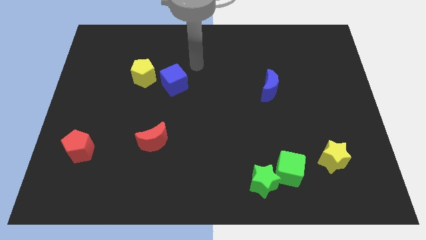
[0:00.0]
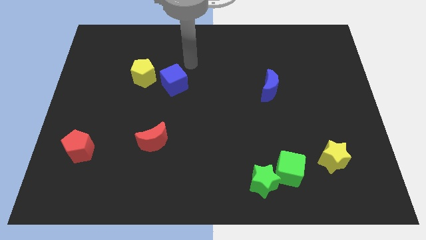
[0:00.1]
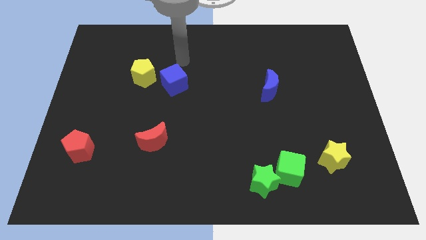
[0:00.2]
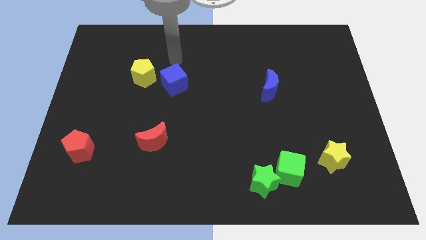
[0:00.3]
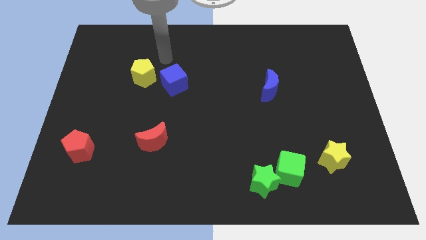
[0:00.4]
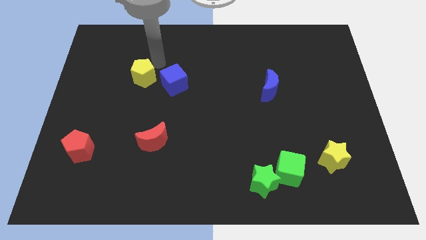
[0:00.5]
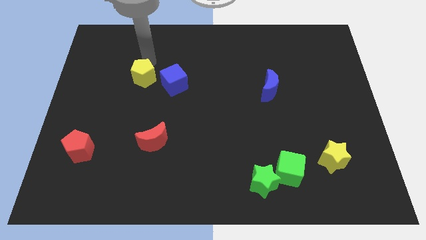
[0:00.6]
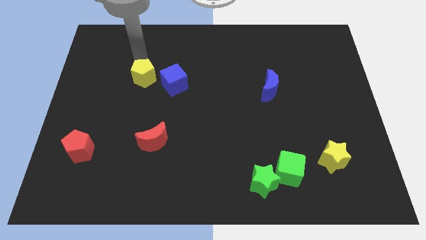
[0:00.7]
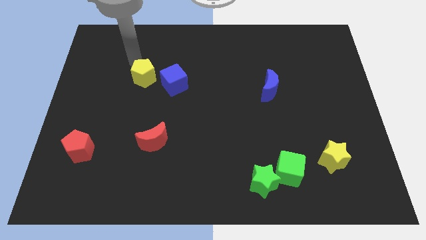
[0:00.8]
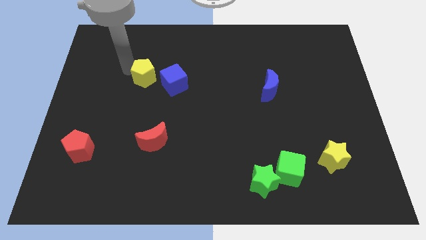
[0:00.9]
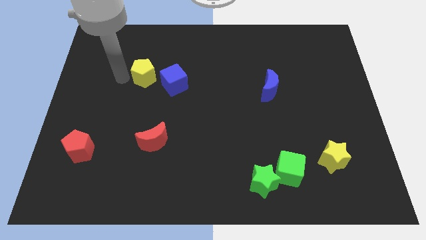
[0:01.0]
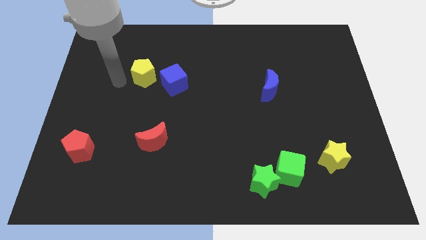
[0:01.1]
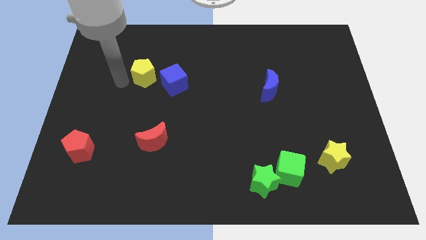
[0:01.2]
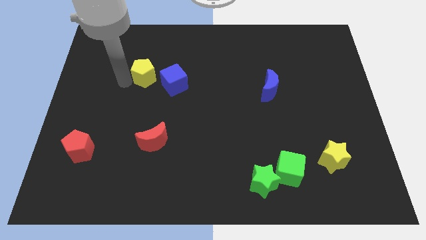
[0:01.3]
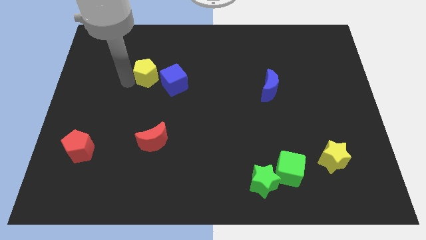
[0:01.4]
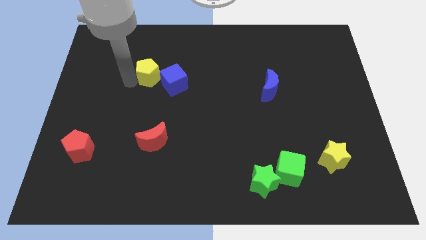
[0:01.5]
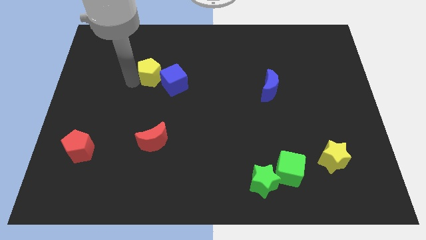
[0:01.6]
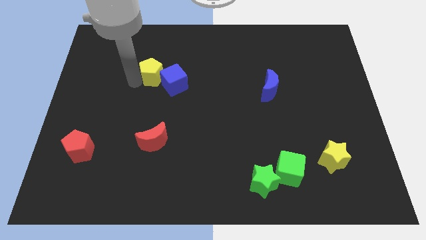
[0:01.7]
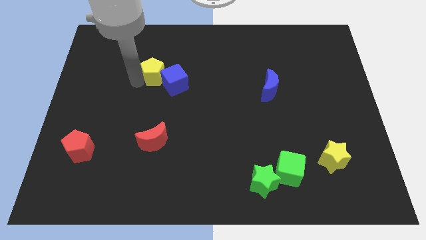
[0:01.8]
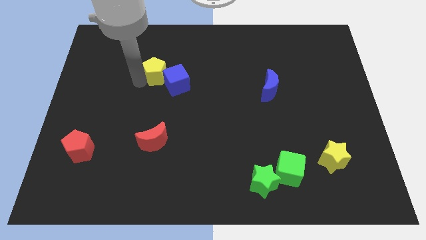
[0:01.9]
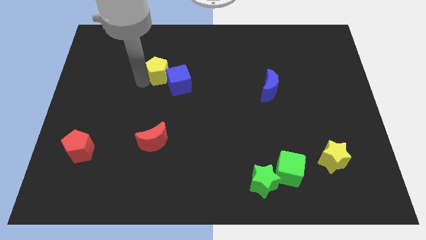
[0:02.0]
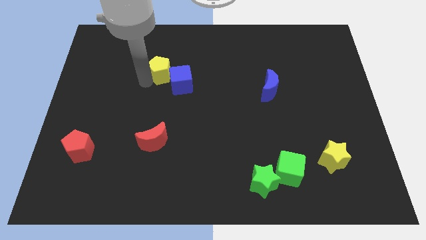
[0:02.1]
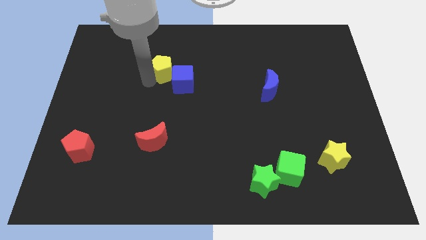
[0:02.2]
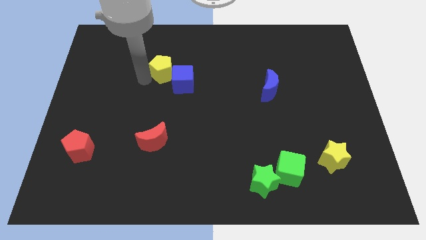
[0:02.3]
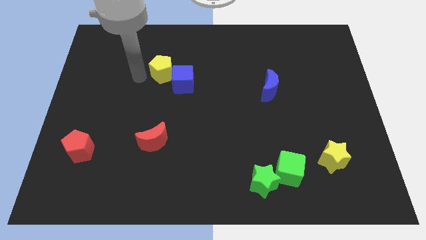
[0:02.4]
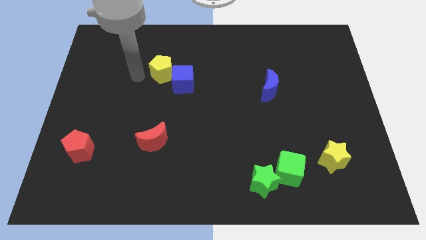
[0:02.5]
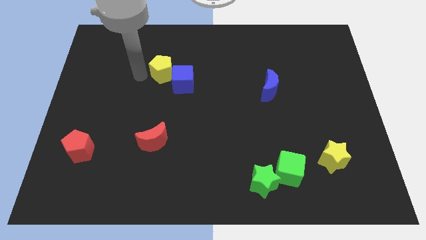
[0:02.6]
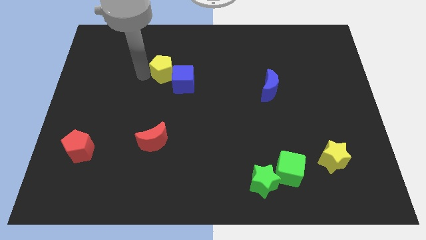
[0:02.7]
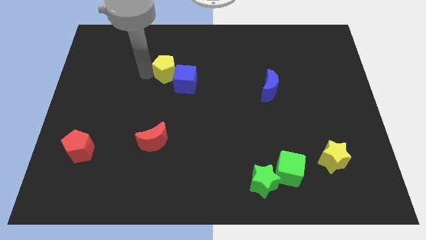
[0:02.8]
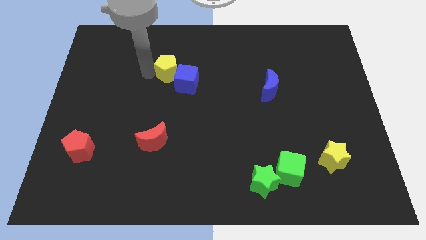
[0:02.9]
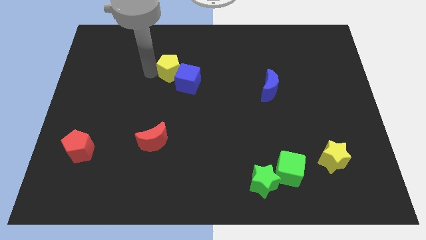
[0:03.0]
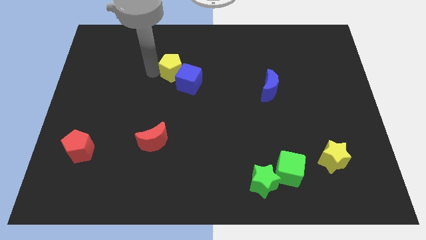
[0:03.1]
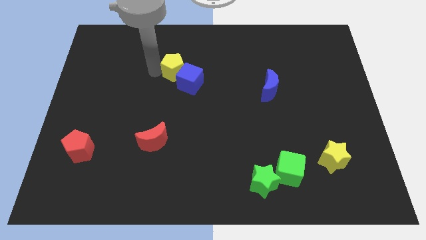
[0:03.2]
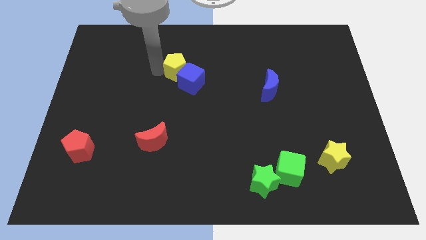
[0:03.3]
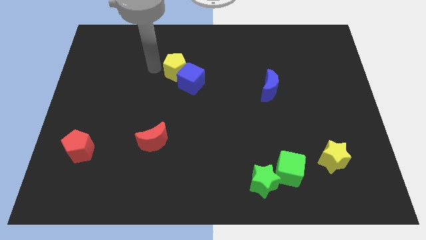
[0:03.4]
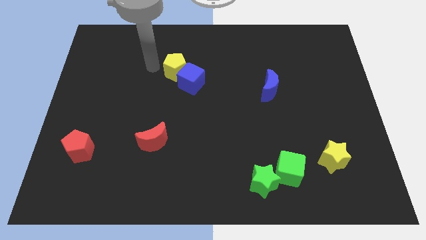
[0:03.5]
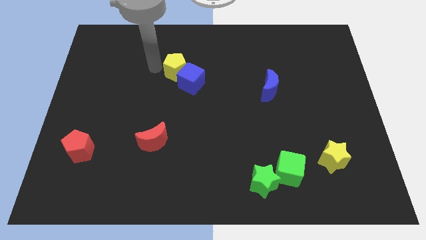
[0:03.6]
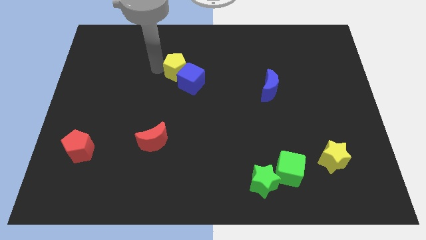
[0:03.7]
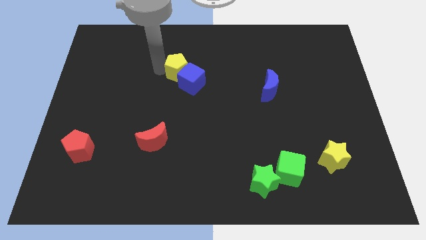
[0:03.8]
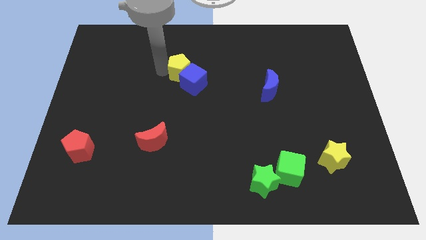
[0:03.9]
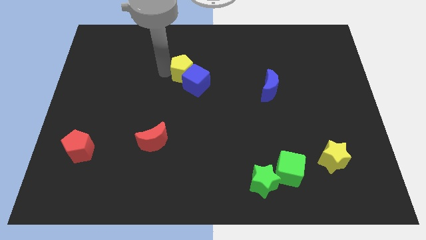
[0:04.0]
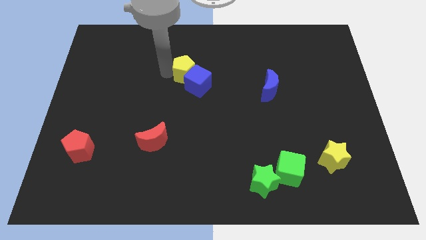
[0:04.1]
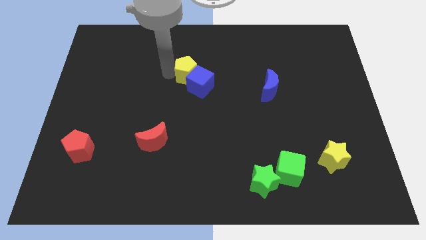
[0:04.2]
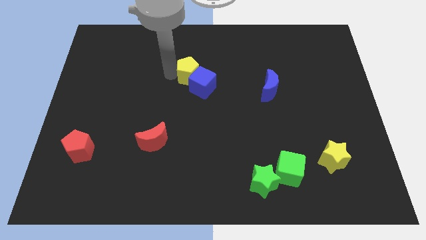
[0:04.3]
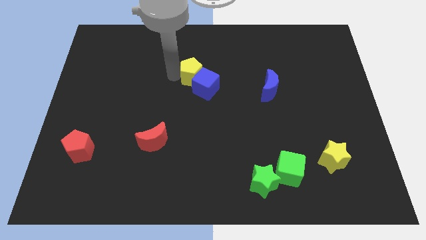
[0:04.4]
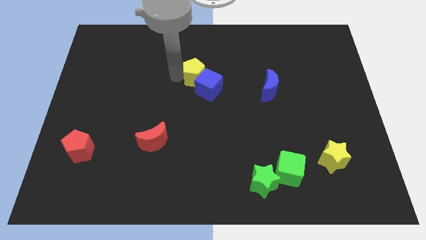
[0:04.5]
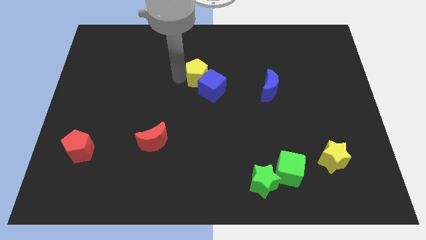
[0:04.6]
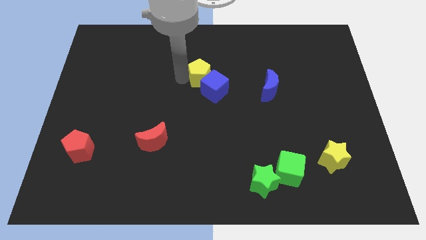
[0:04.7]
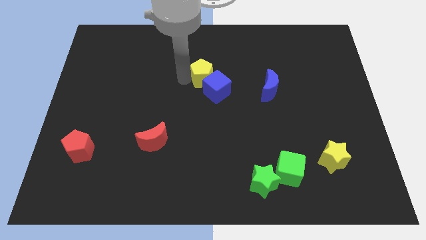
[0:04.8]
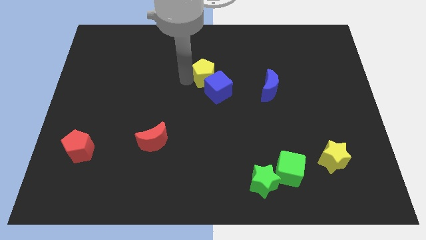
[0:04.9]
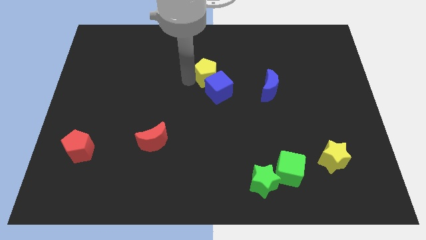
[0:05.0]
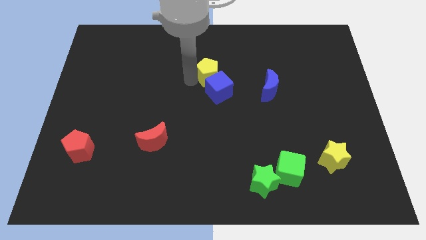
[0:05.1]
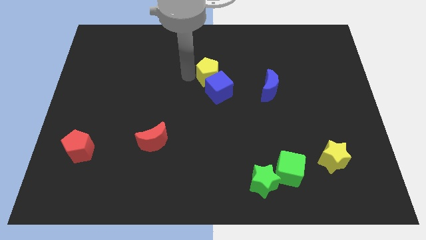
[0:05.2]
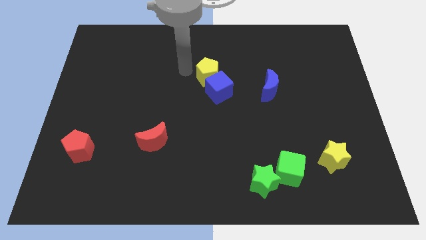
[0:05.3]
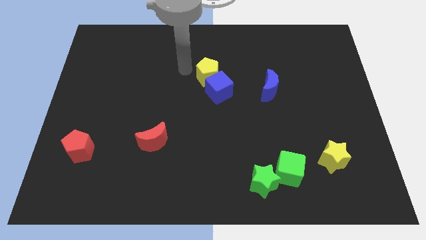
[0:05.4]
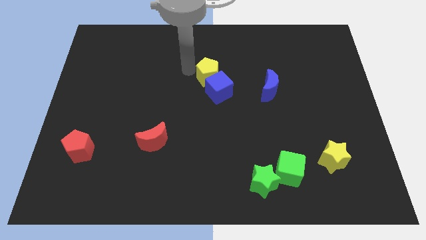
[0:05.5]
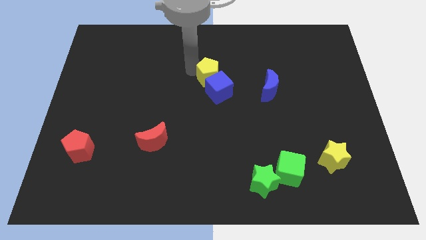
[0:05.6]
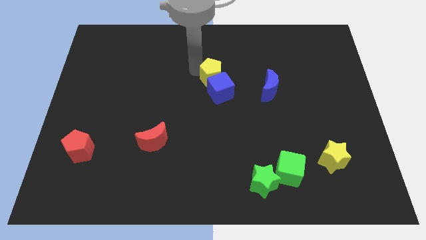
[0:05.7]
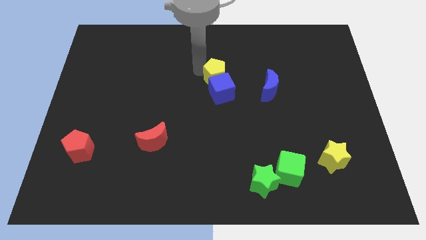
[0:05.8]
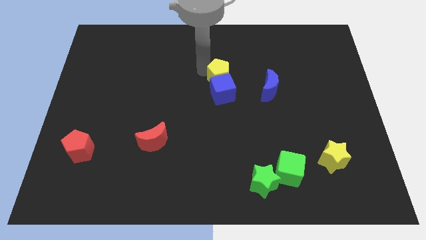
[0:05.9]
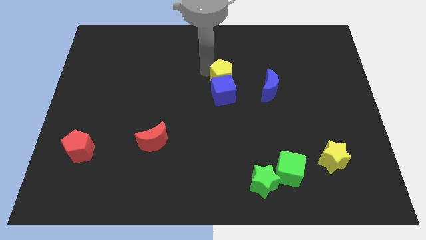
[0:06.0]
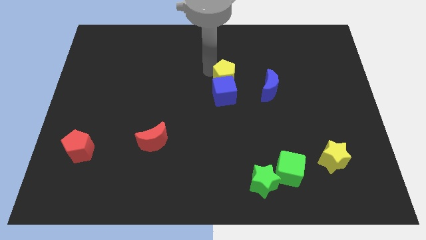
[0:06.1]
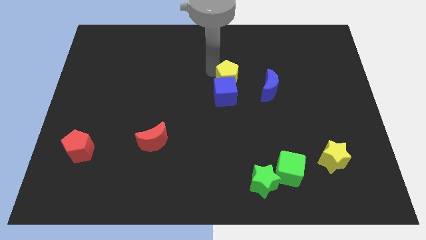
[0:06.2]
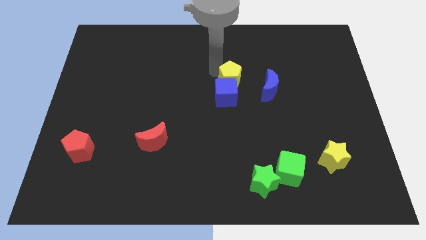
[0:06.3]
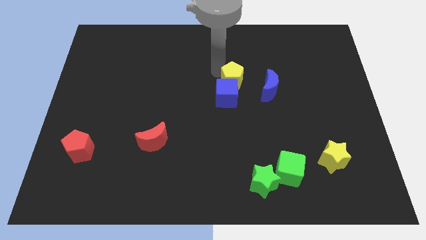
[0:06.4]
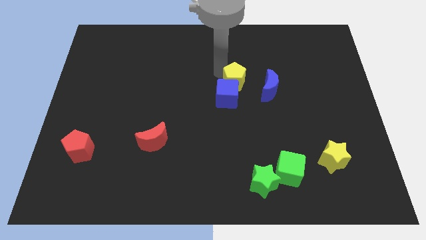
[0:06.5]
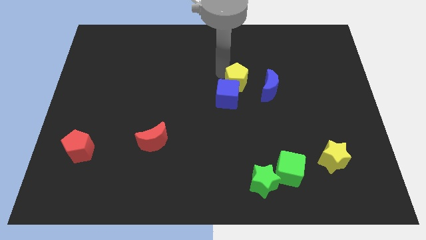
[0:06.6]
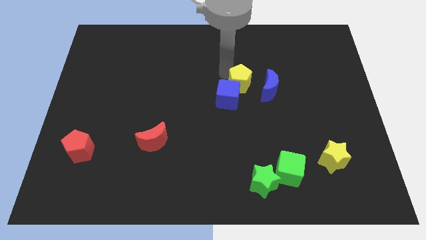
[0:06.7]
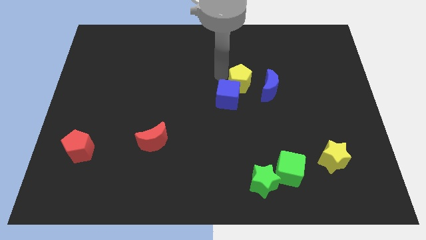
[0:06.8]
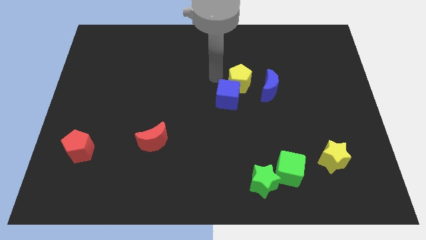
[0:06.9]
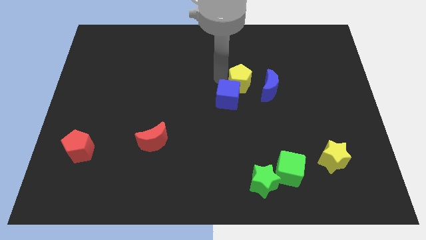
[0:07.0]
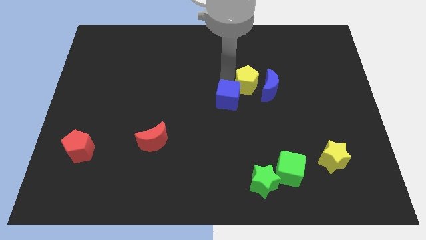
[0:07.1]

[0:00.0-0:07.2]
put the yellow pentagon next to the blue moon

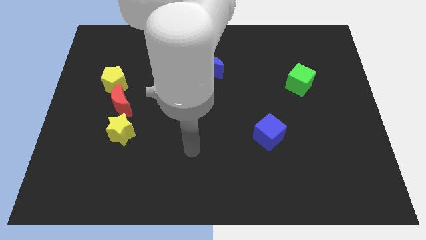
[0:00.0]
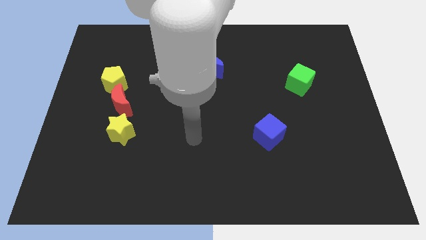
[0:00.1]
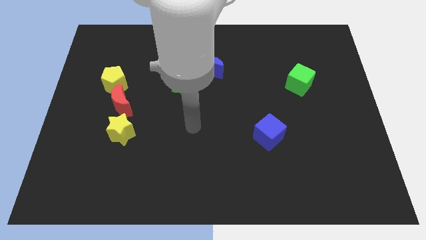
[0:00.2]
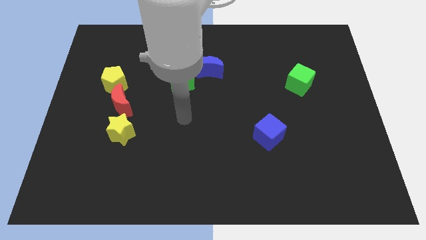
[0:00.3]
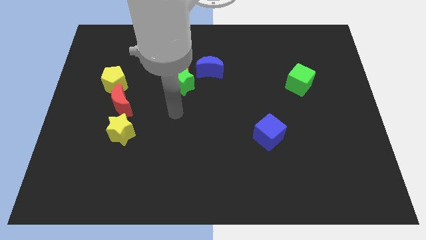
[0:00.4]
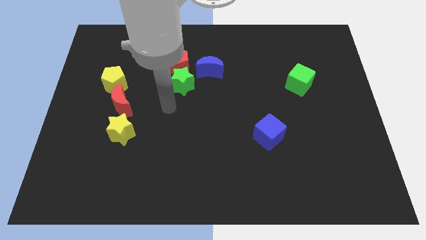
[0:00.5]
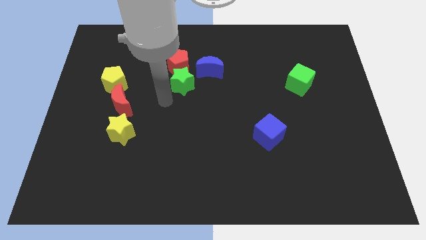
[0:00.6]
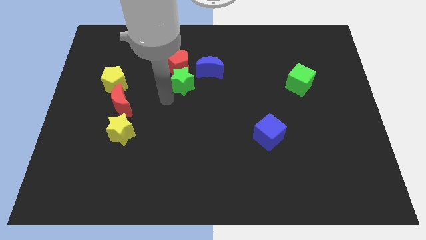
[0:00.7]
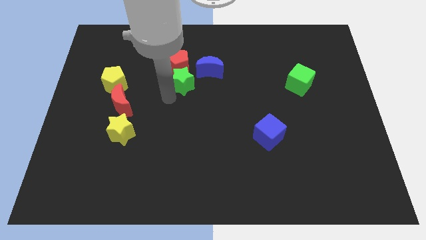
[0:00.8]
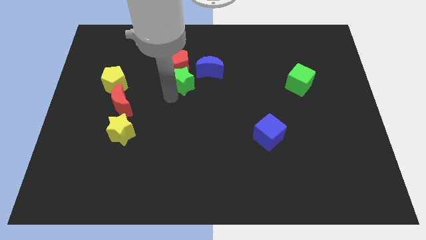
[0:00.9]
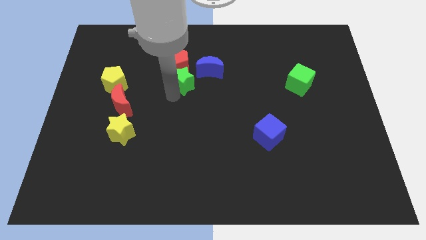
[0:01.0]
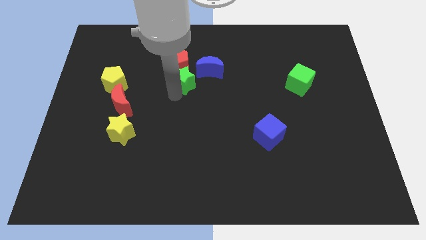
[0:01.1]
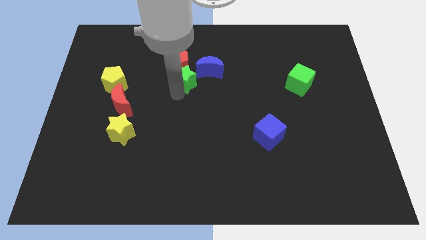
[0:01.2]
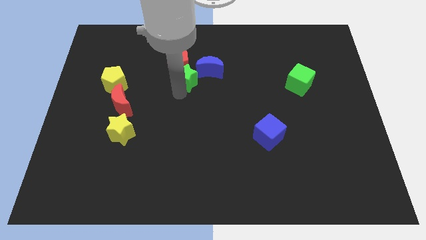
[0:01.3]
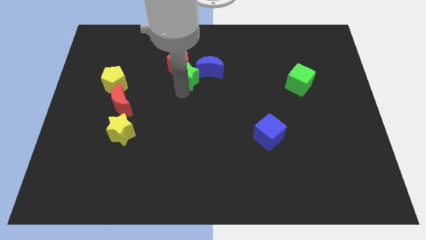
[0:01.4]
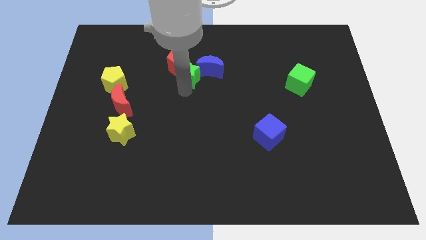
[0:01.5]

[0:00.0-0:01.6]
move the green star next to the blue moon
